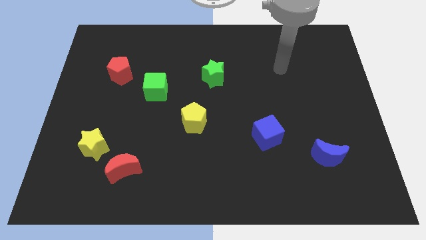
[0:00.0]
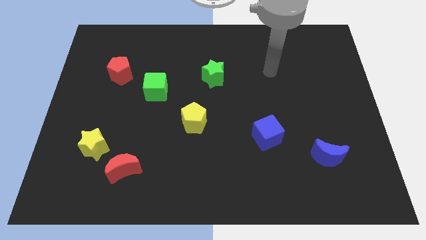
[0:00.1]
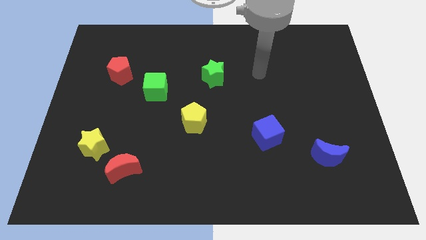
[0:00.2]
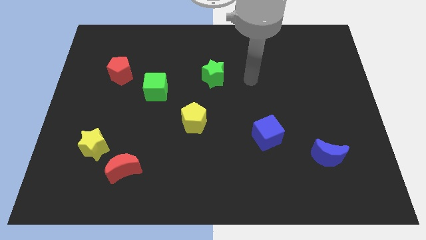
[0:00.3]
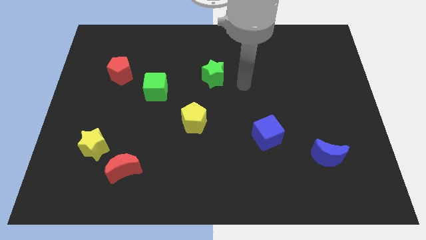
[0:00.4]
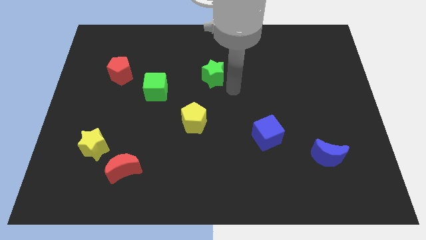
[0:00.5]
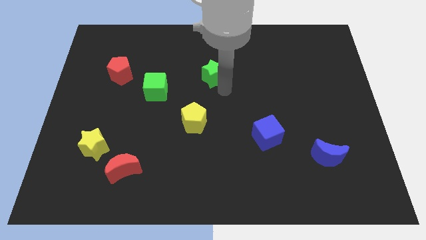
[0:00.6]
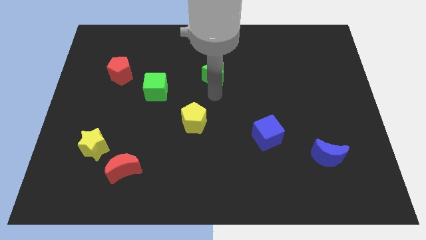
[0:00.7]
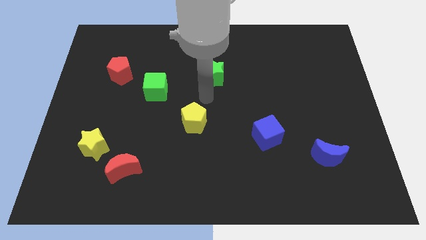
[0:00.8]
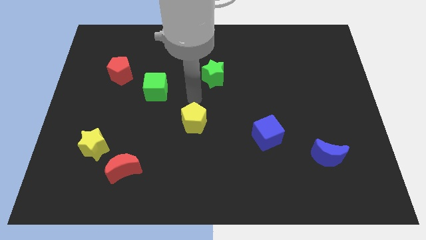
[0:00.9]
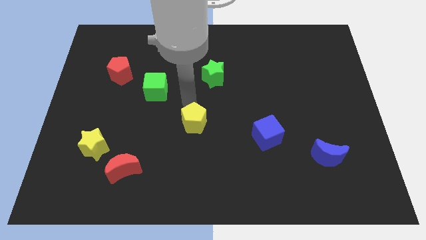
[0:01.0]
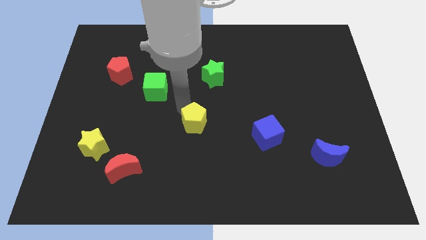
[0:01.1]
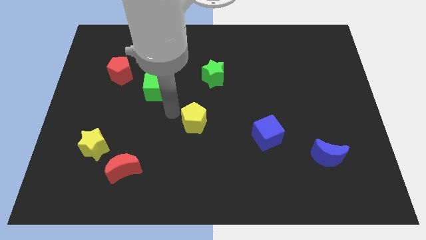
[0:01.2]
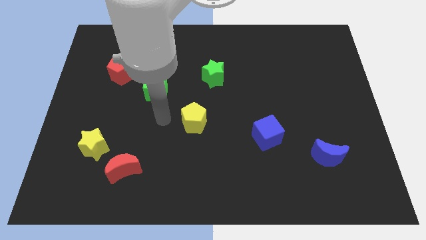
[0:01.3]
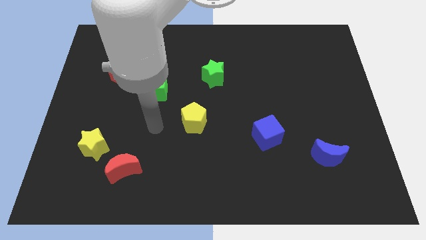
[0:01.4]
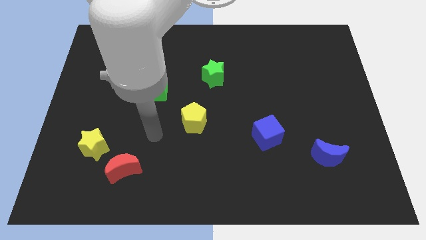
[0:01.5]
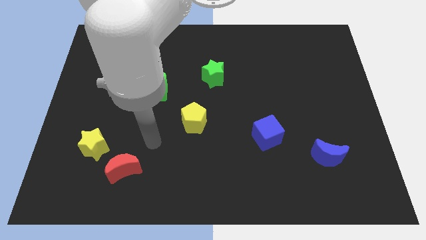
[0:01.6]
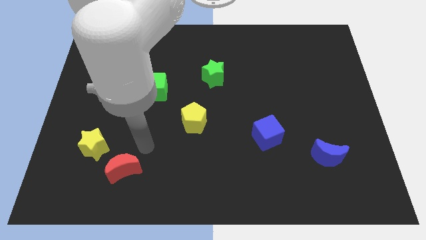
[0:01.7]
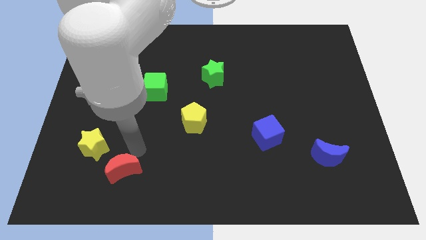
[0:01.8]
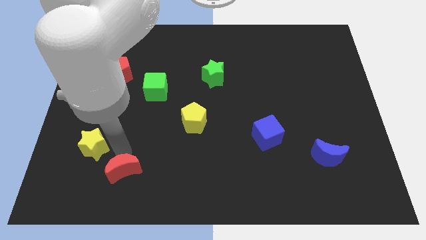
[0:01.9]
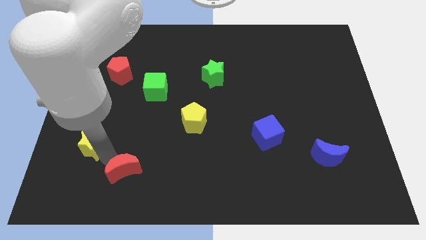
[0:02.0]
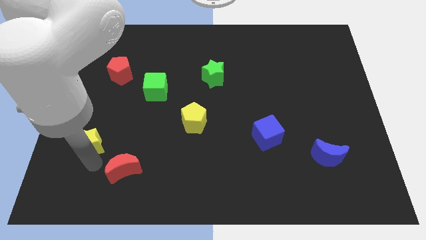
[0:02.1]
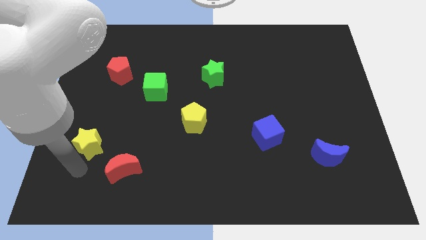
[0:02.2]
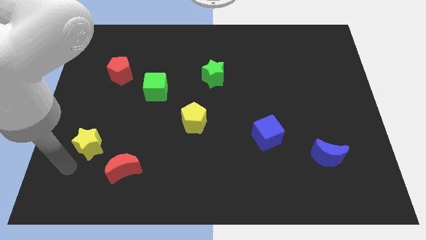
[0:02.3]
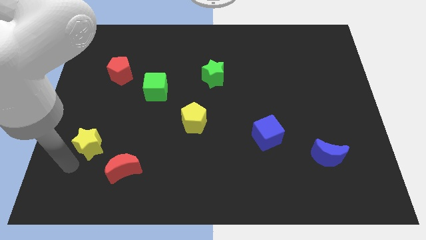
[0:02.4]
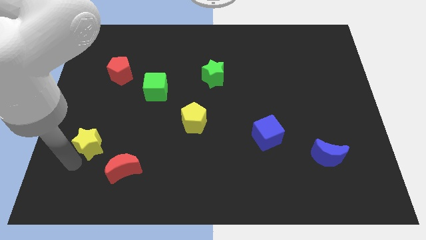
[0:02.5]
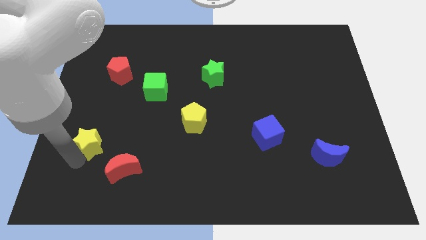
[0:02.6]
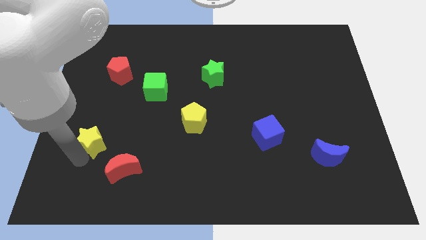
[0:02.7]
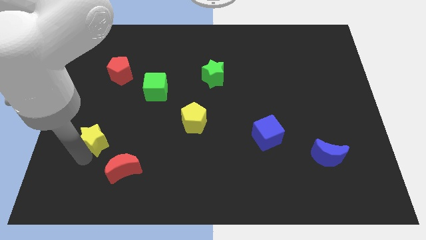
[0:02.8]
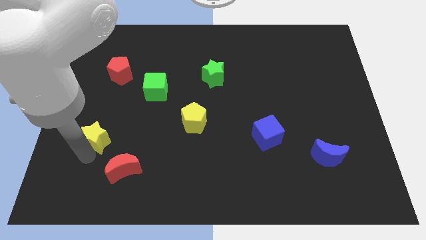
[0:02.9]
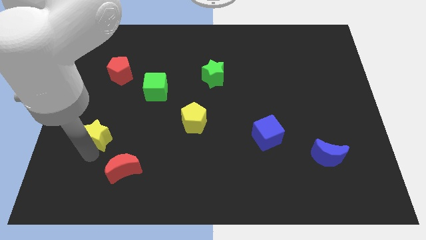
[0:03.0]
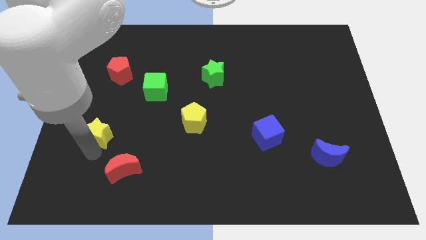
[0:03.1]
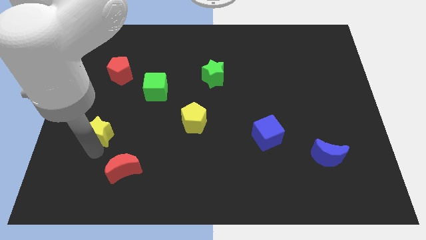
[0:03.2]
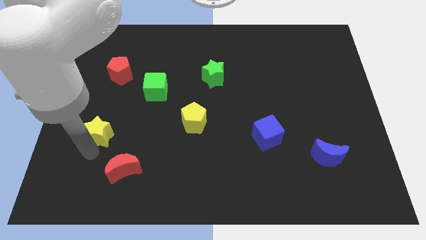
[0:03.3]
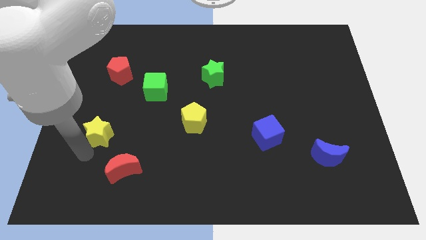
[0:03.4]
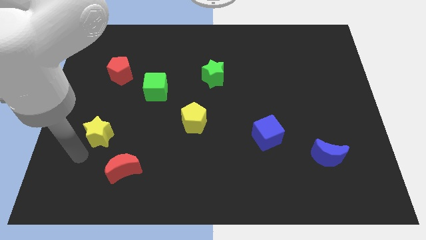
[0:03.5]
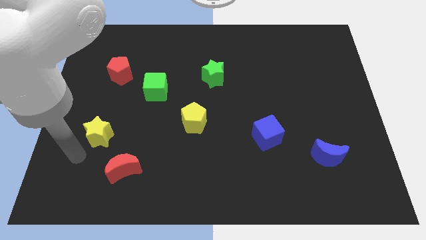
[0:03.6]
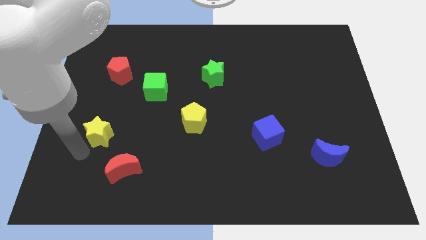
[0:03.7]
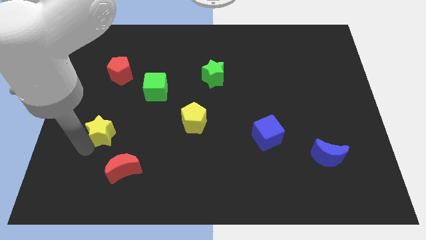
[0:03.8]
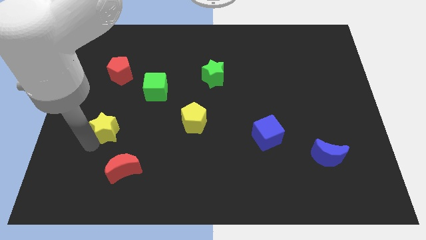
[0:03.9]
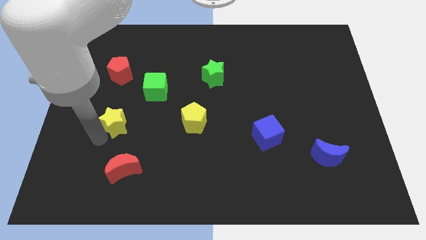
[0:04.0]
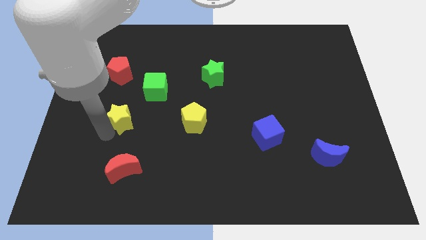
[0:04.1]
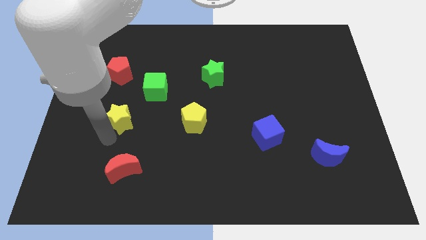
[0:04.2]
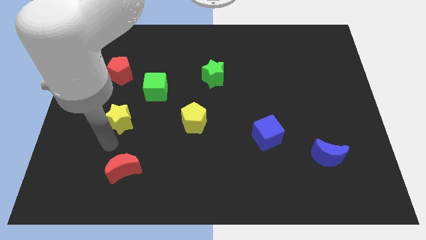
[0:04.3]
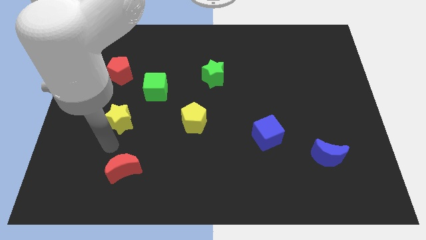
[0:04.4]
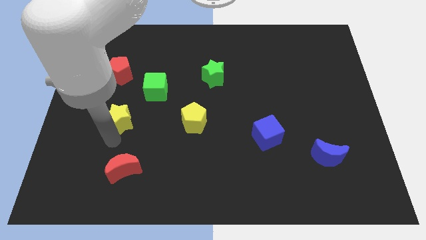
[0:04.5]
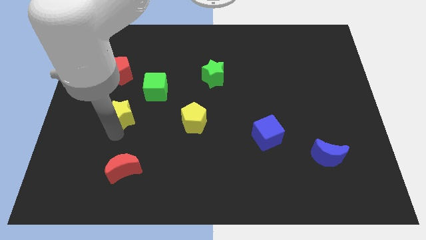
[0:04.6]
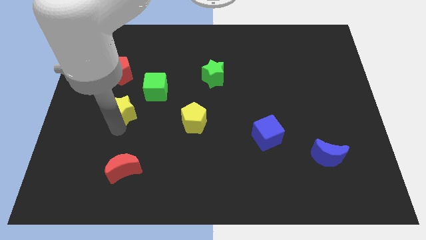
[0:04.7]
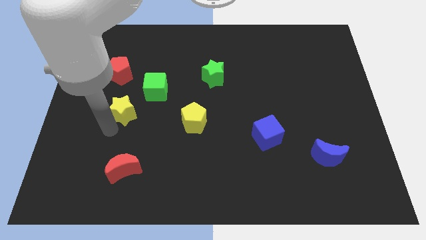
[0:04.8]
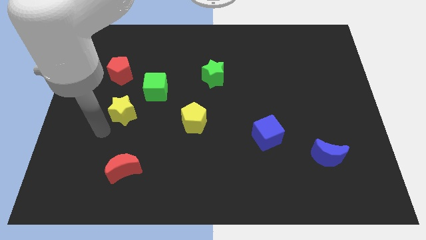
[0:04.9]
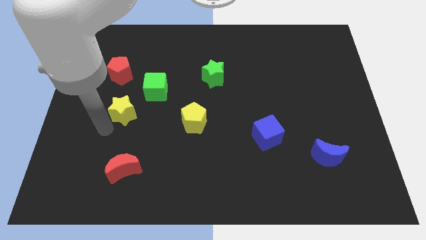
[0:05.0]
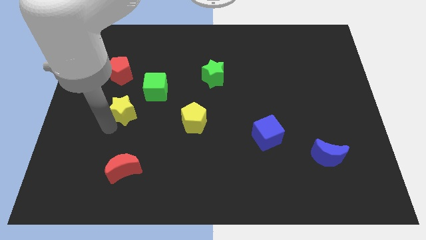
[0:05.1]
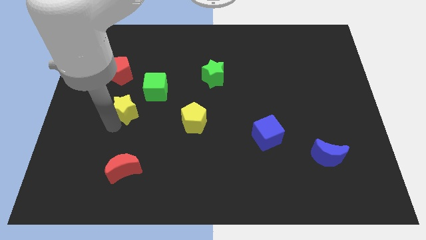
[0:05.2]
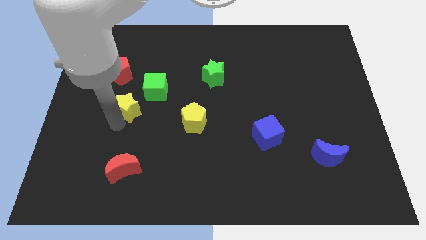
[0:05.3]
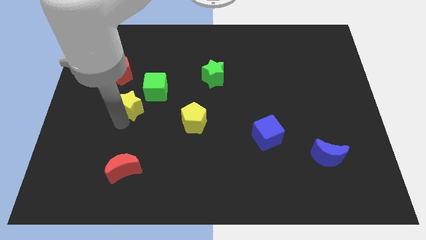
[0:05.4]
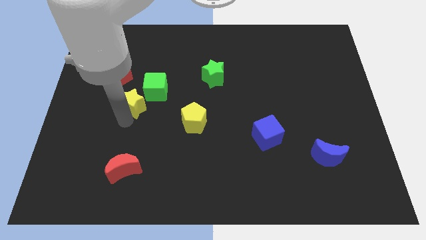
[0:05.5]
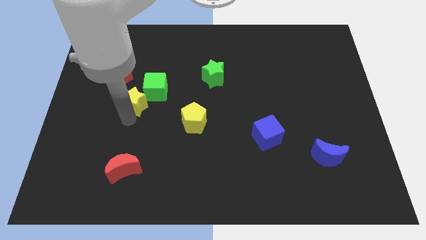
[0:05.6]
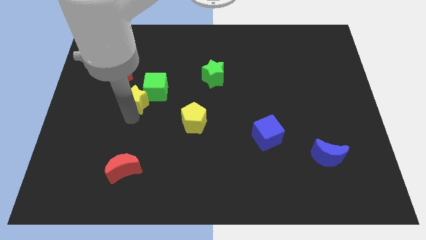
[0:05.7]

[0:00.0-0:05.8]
slide the yellow star close to the green cube

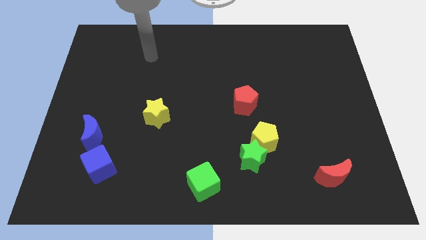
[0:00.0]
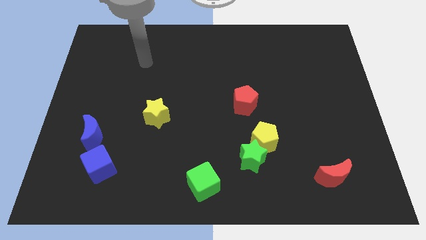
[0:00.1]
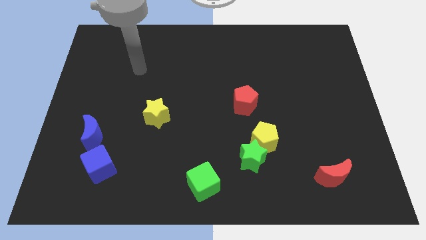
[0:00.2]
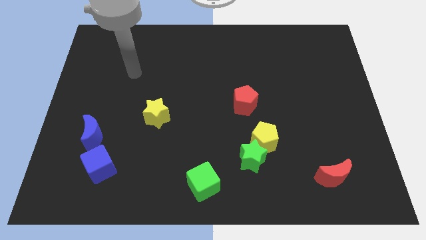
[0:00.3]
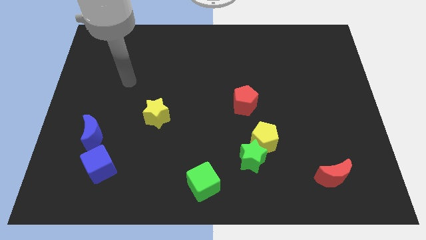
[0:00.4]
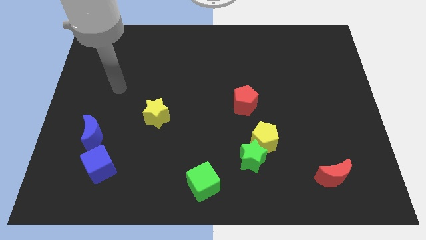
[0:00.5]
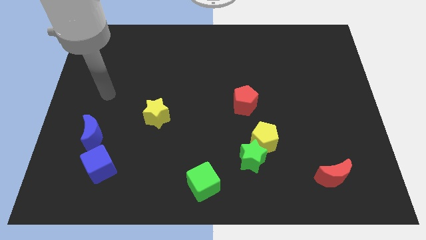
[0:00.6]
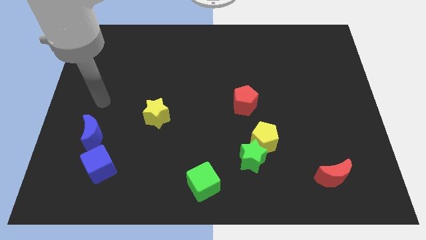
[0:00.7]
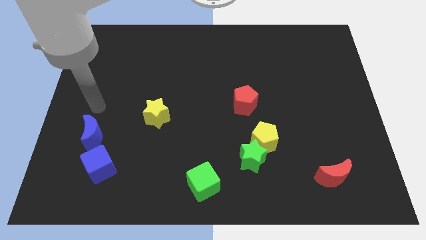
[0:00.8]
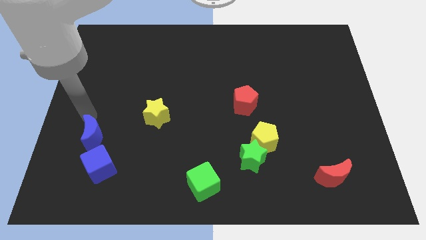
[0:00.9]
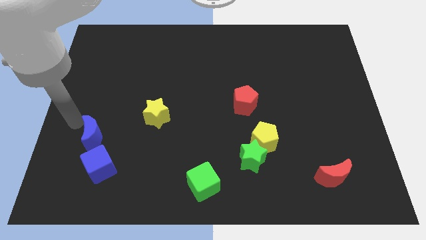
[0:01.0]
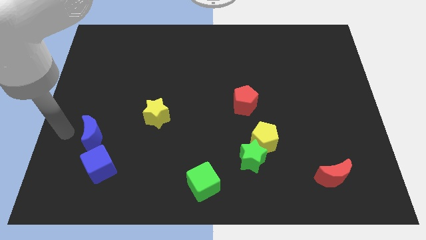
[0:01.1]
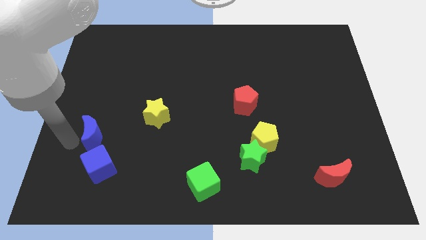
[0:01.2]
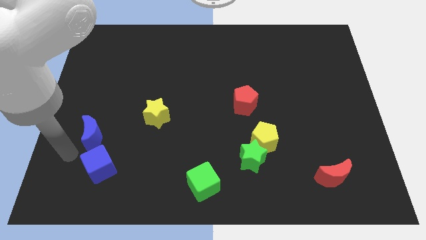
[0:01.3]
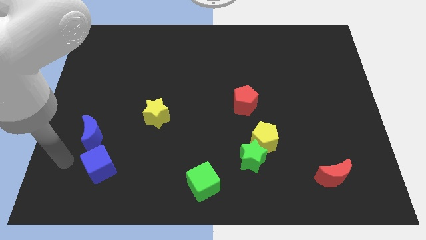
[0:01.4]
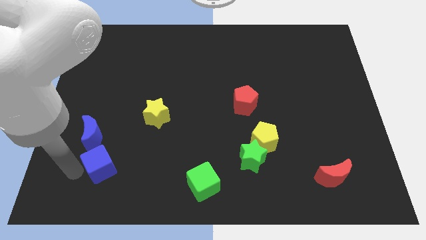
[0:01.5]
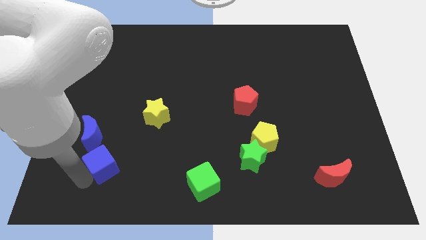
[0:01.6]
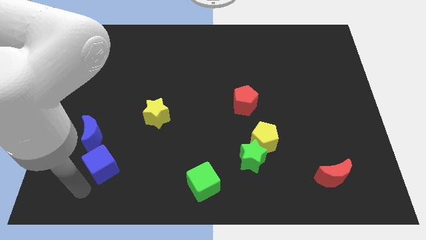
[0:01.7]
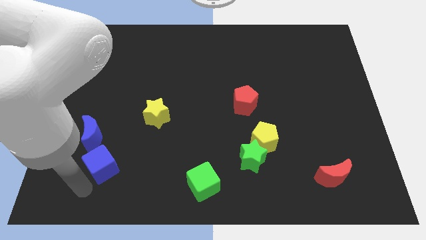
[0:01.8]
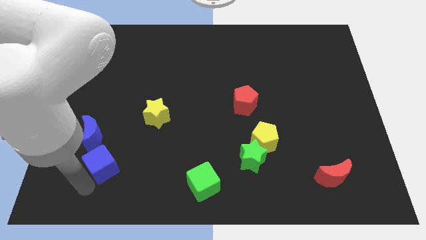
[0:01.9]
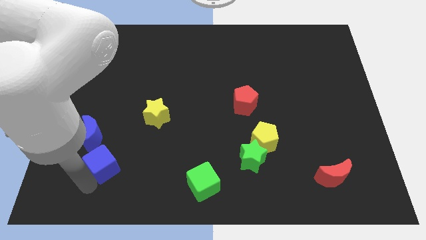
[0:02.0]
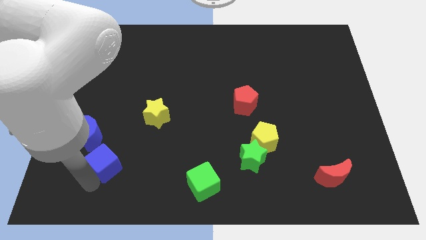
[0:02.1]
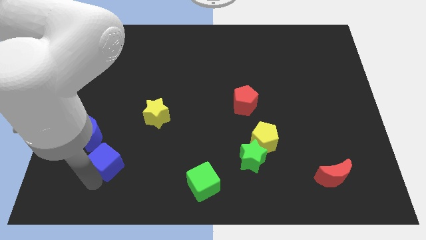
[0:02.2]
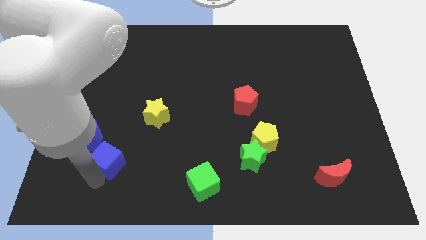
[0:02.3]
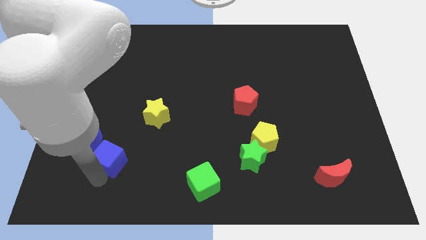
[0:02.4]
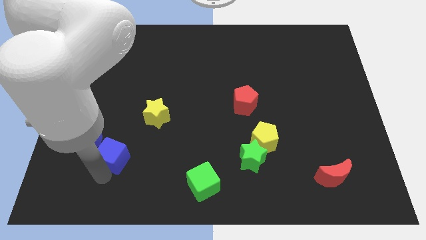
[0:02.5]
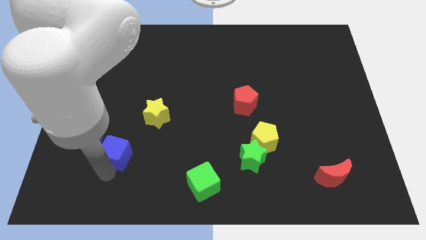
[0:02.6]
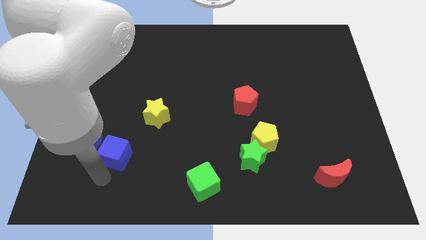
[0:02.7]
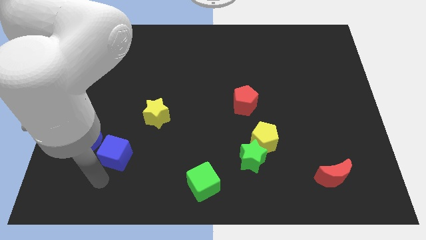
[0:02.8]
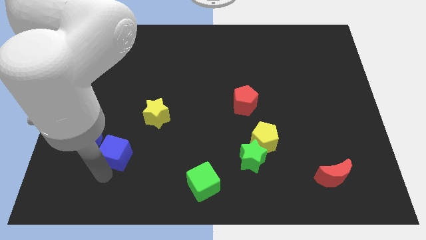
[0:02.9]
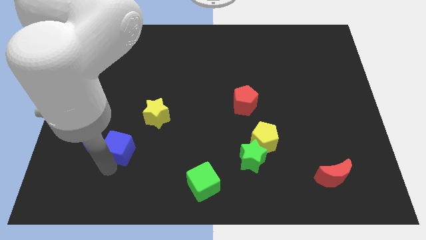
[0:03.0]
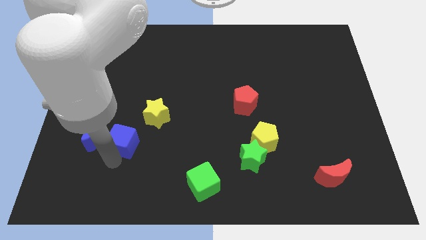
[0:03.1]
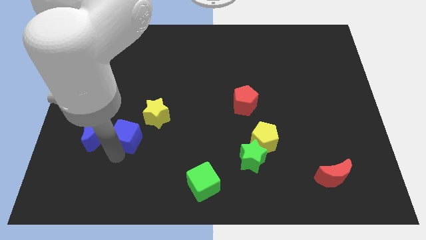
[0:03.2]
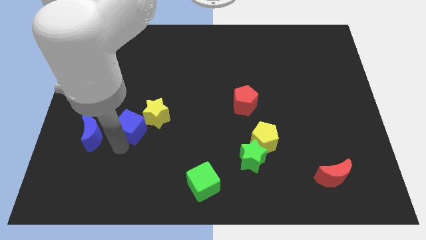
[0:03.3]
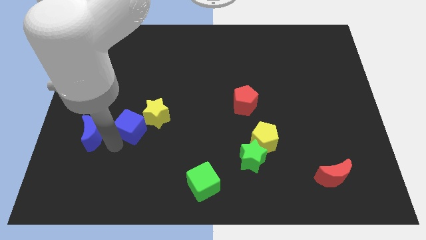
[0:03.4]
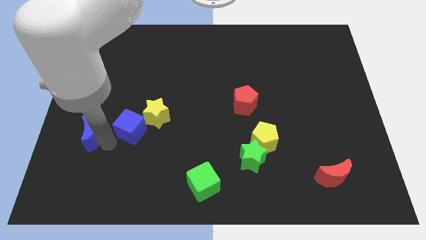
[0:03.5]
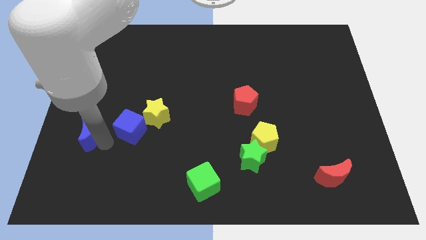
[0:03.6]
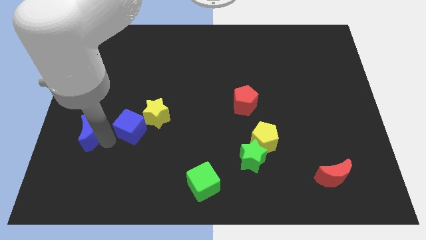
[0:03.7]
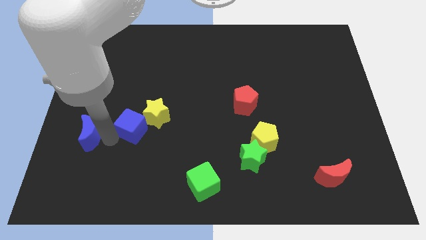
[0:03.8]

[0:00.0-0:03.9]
move the blue cube close to the yellow star
